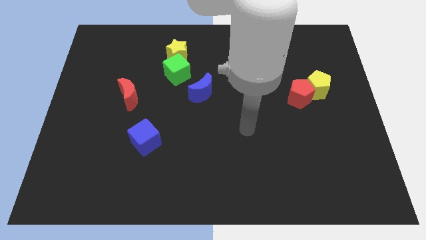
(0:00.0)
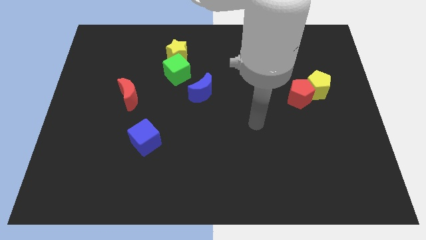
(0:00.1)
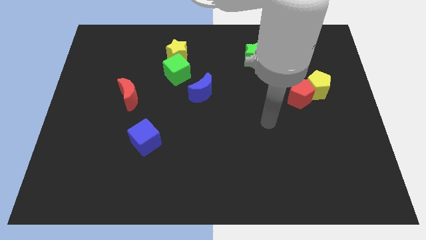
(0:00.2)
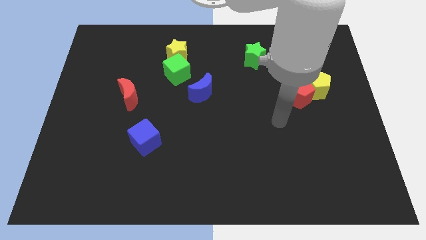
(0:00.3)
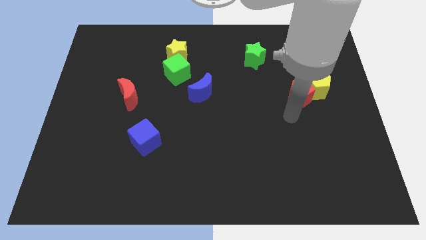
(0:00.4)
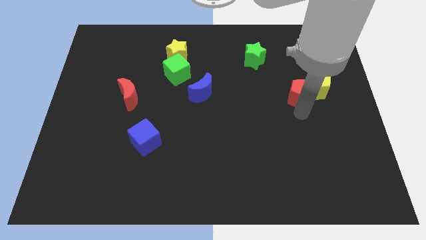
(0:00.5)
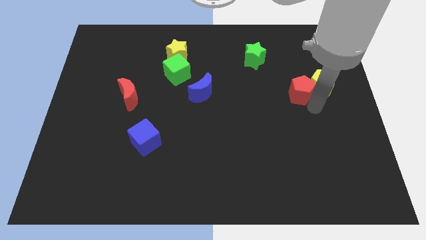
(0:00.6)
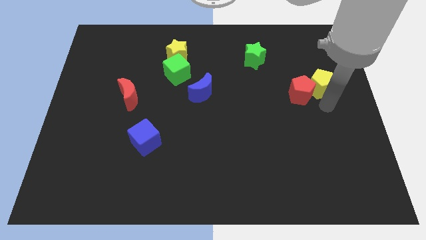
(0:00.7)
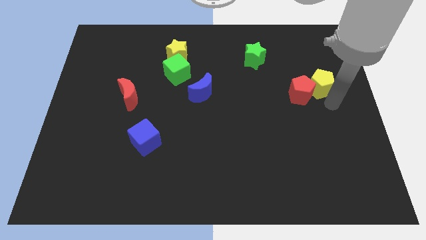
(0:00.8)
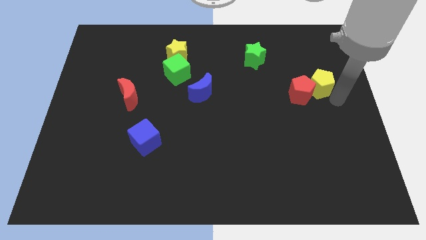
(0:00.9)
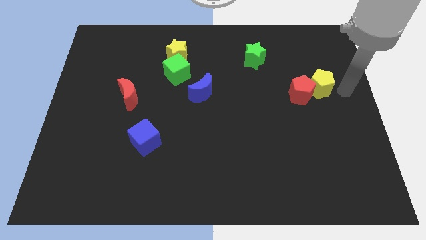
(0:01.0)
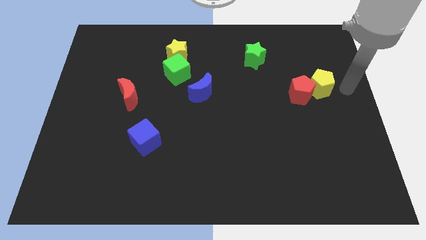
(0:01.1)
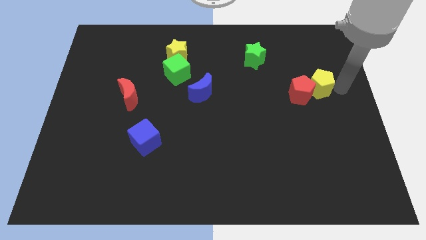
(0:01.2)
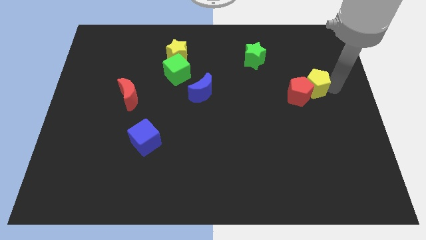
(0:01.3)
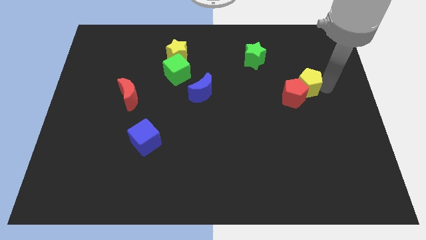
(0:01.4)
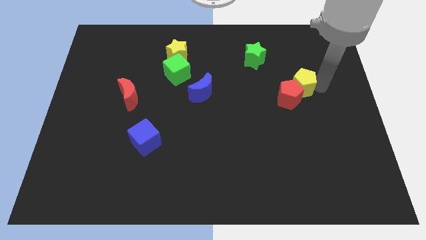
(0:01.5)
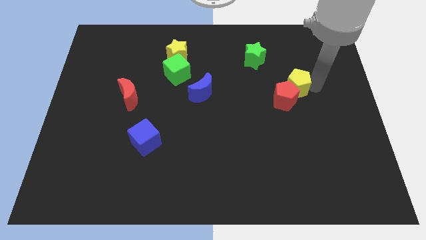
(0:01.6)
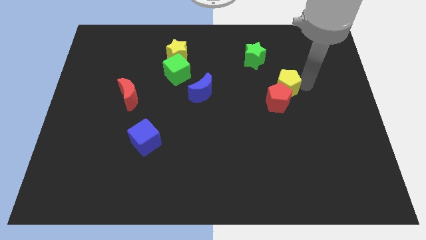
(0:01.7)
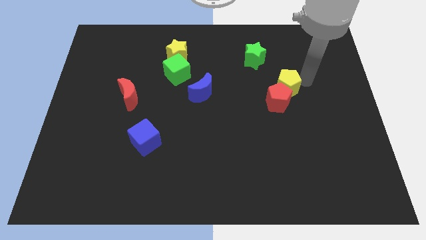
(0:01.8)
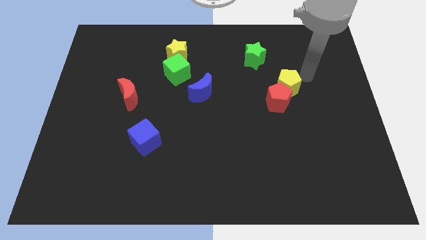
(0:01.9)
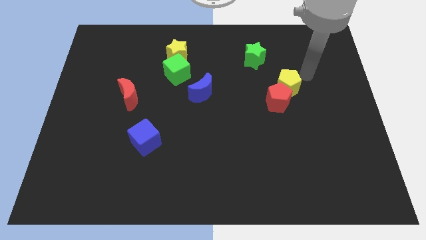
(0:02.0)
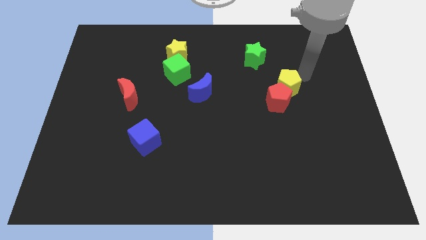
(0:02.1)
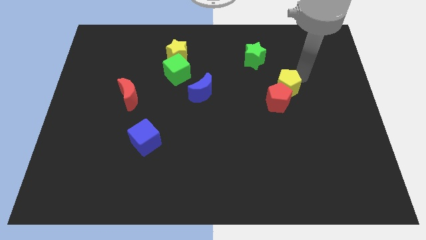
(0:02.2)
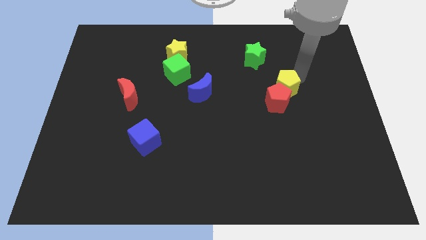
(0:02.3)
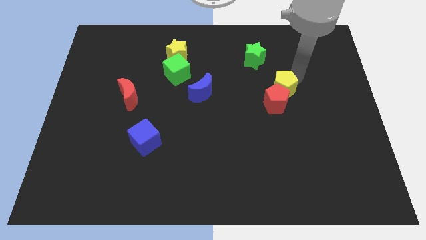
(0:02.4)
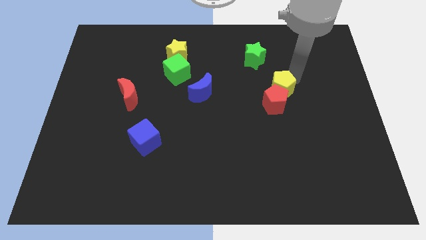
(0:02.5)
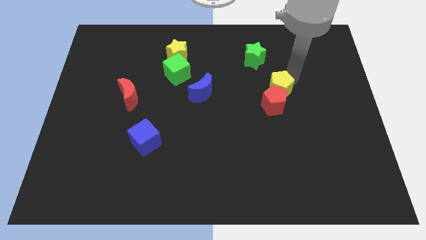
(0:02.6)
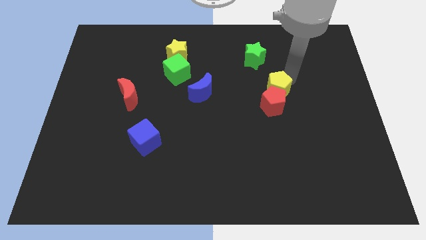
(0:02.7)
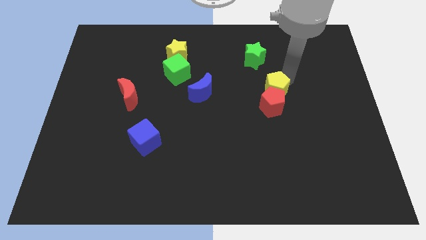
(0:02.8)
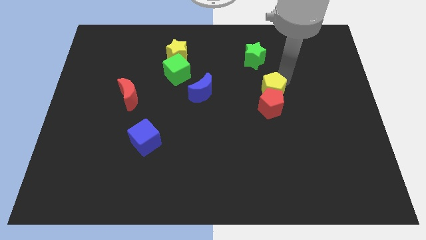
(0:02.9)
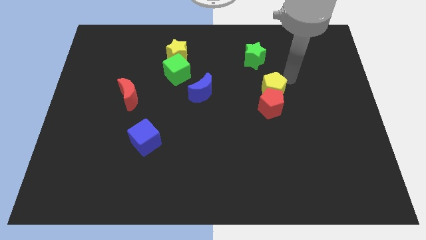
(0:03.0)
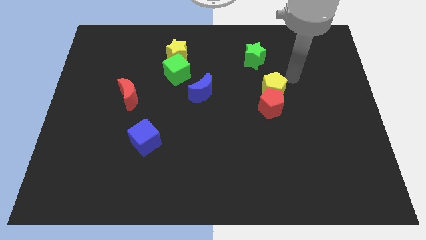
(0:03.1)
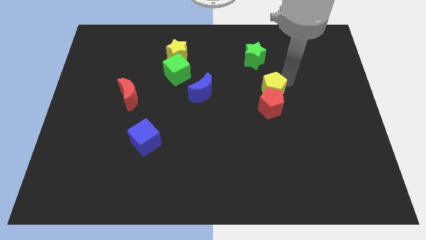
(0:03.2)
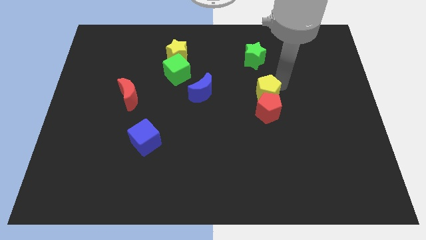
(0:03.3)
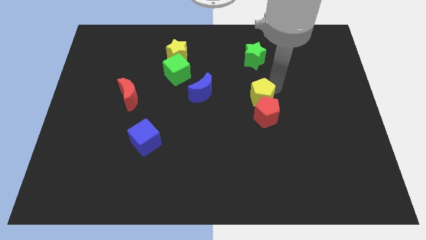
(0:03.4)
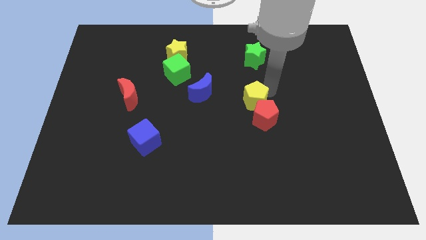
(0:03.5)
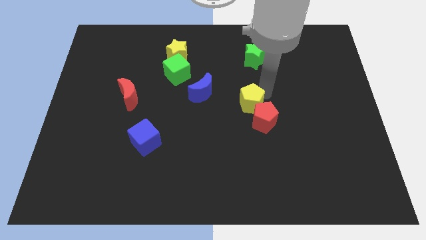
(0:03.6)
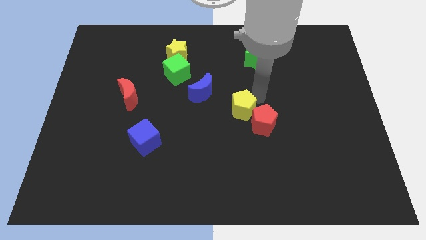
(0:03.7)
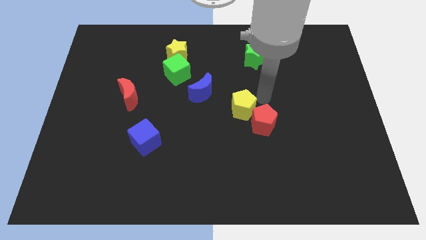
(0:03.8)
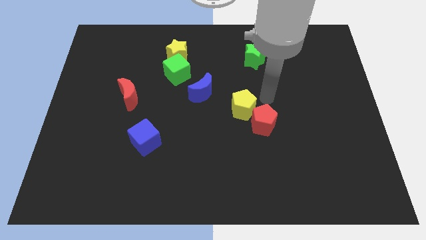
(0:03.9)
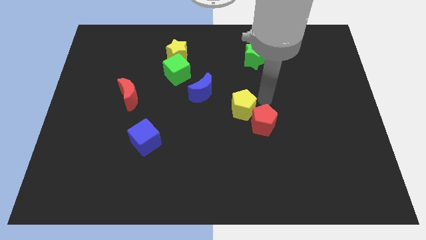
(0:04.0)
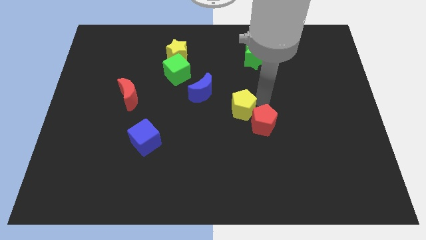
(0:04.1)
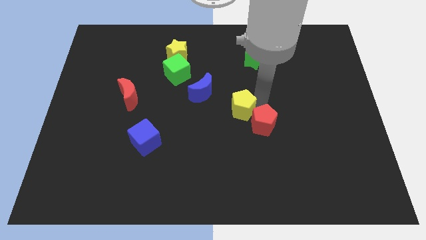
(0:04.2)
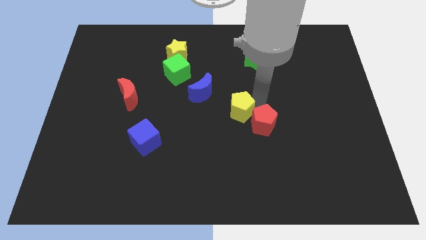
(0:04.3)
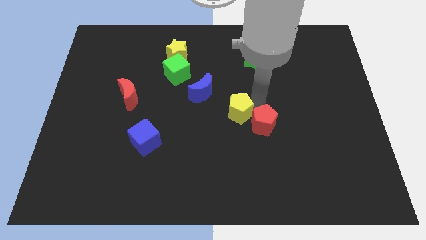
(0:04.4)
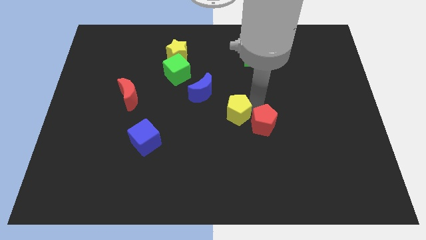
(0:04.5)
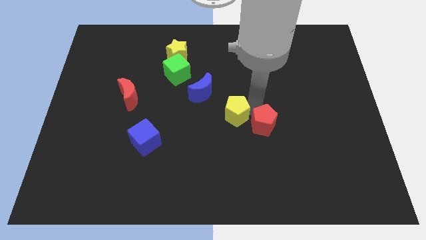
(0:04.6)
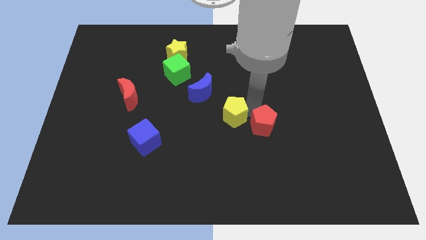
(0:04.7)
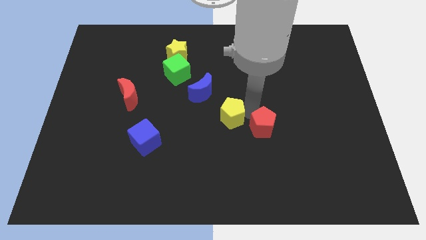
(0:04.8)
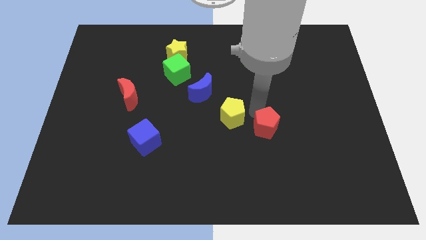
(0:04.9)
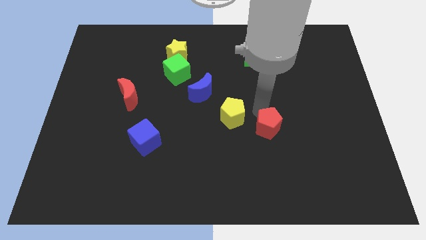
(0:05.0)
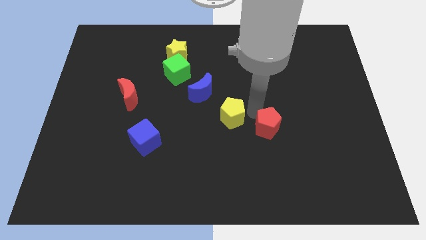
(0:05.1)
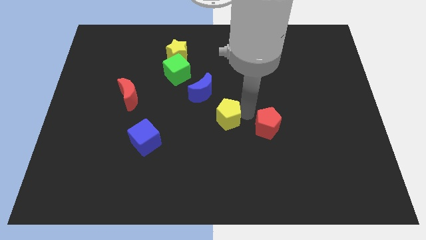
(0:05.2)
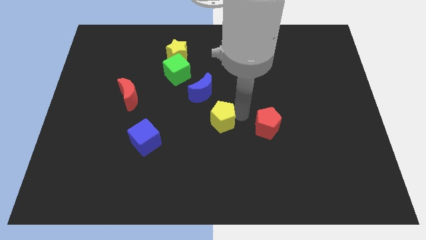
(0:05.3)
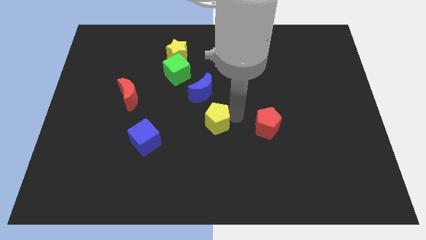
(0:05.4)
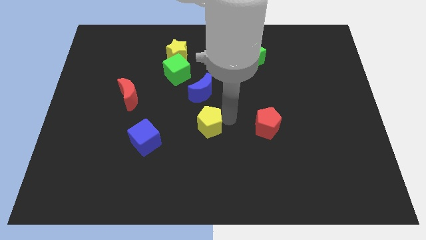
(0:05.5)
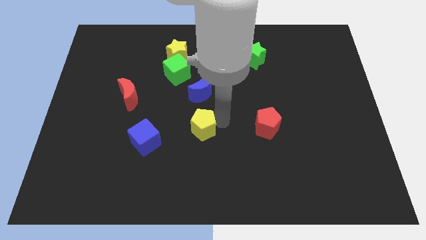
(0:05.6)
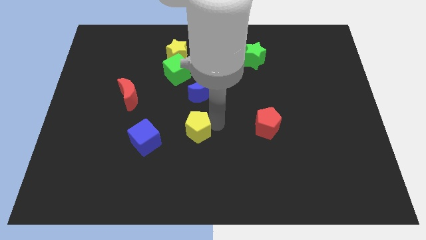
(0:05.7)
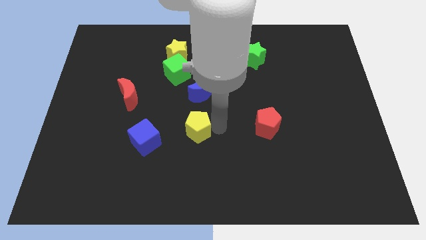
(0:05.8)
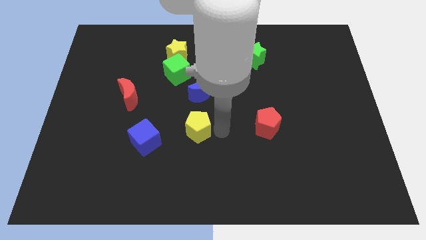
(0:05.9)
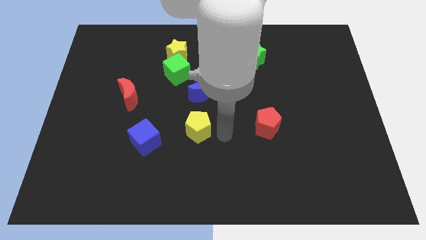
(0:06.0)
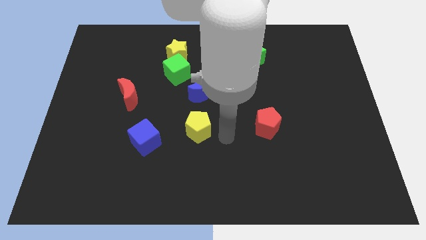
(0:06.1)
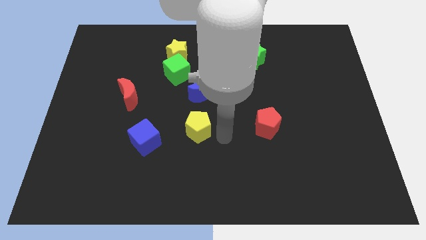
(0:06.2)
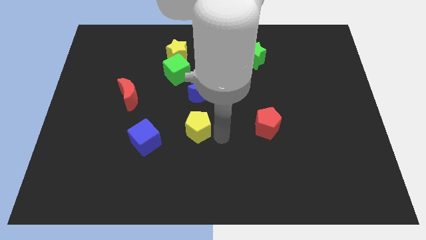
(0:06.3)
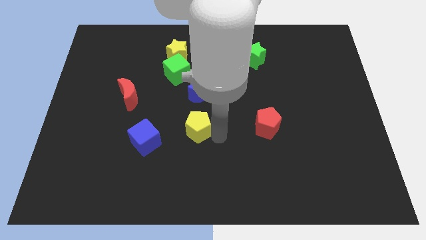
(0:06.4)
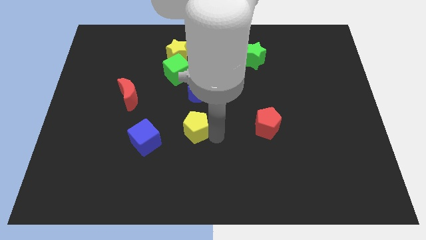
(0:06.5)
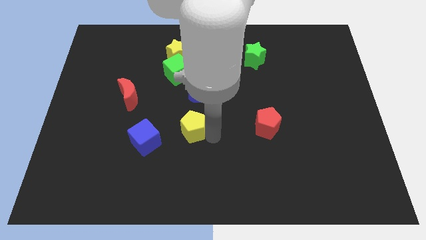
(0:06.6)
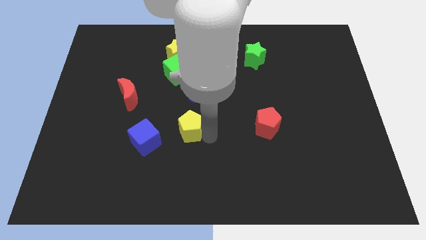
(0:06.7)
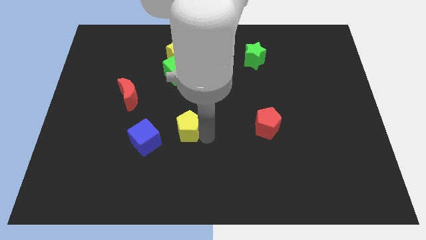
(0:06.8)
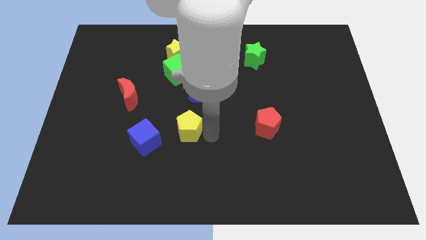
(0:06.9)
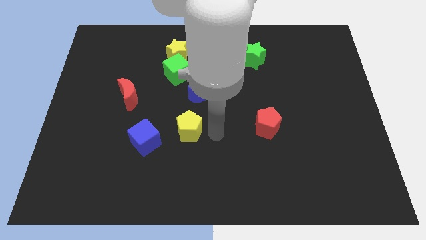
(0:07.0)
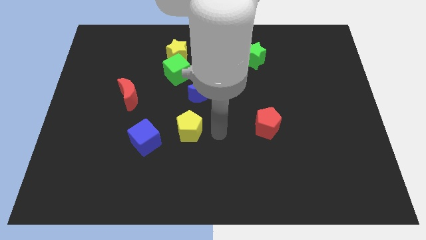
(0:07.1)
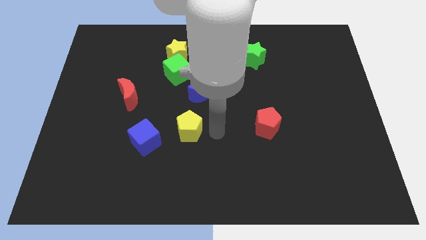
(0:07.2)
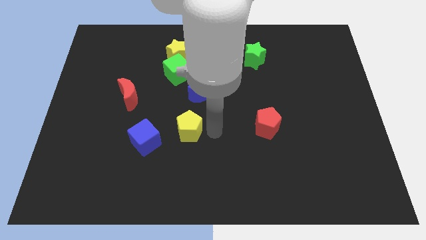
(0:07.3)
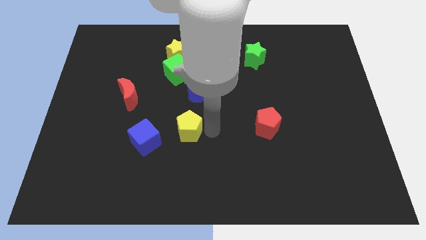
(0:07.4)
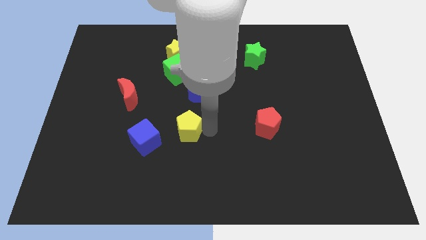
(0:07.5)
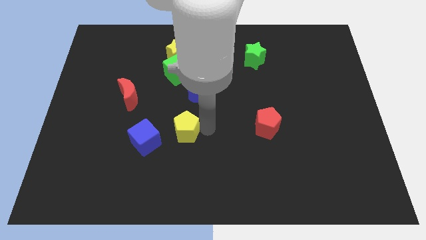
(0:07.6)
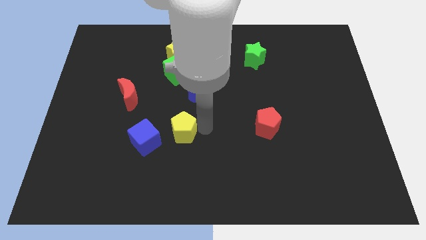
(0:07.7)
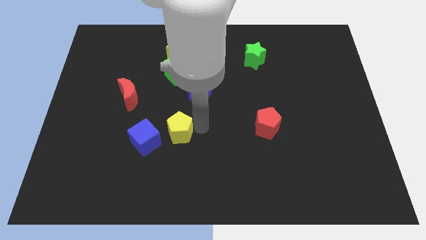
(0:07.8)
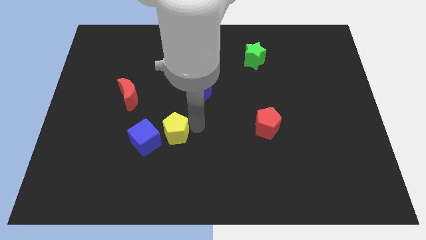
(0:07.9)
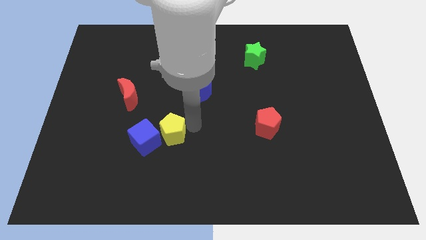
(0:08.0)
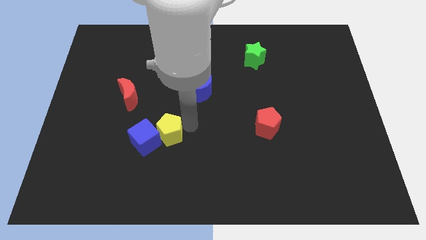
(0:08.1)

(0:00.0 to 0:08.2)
move the yellow pentagon close to the blue cube
